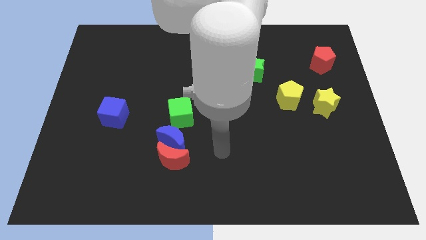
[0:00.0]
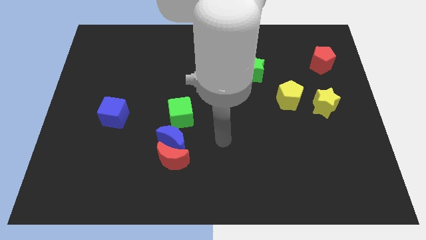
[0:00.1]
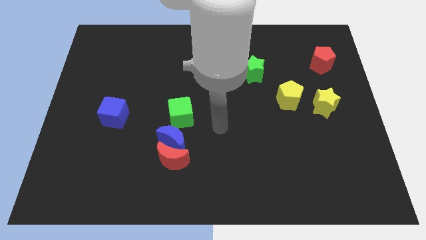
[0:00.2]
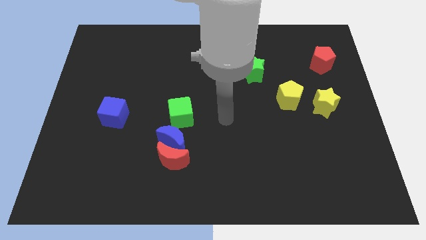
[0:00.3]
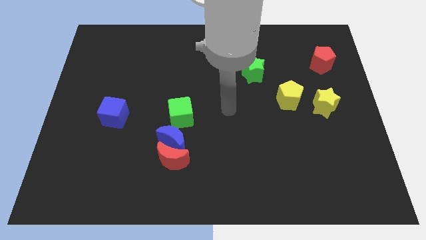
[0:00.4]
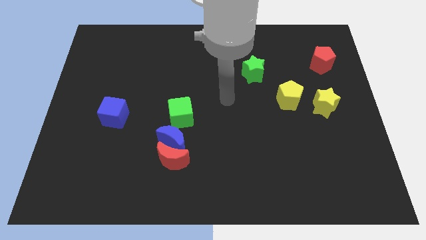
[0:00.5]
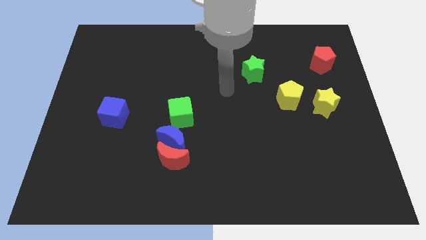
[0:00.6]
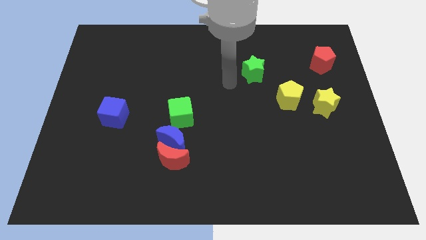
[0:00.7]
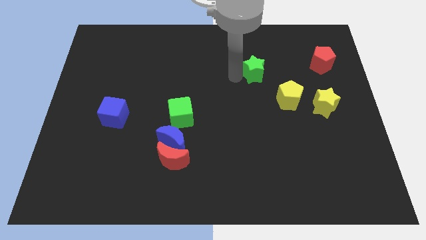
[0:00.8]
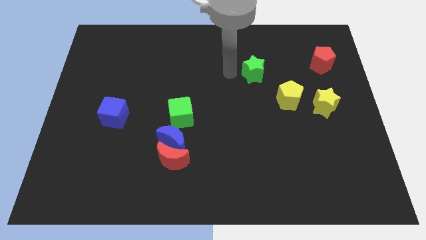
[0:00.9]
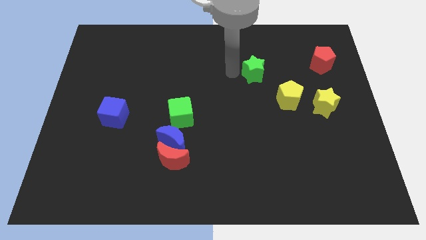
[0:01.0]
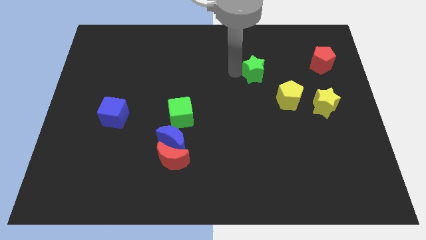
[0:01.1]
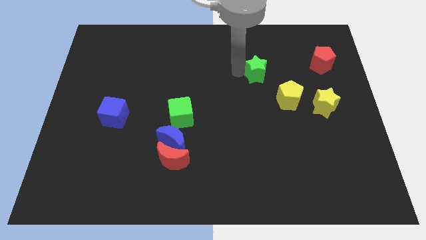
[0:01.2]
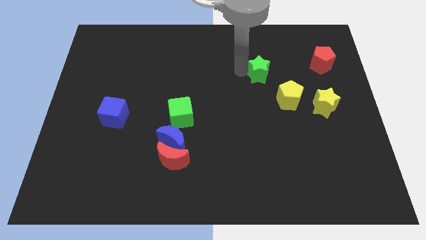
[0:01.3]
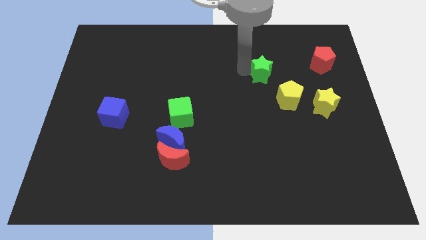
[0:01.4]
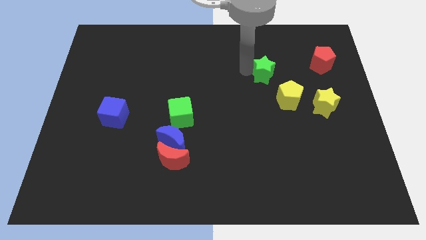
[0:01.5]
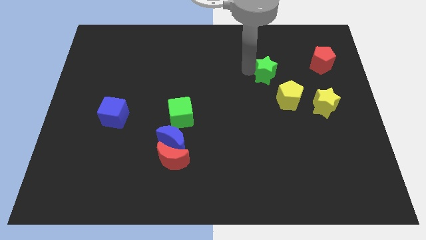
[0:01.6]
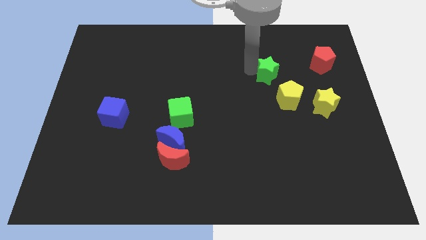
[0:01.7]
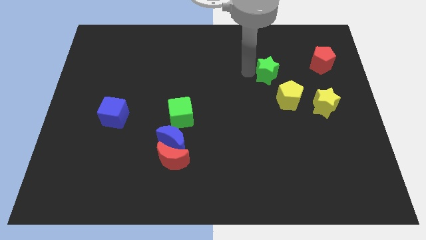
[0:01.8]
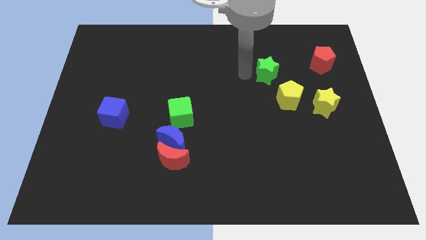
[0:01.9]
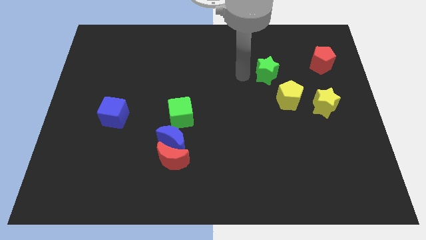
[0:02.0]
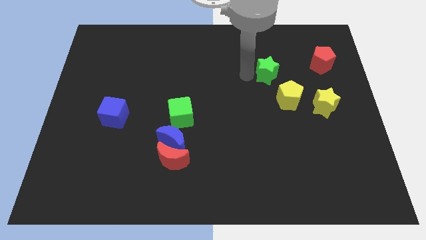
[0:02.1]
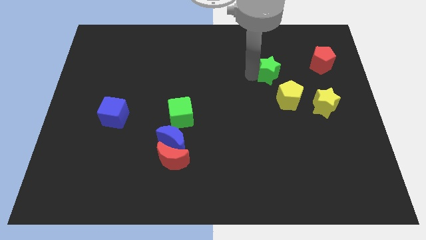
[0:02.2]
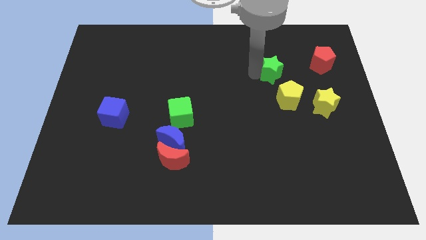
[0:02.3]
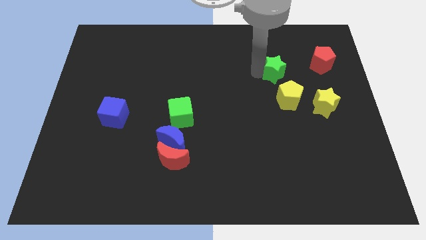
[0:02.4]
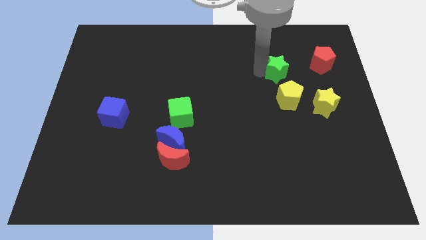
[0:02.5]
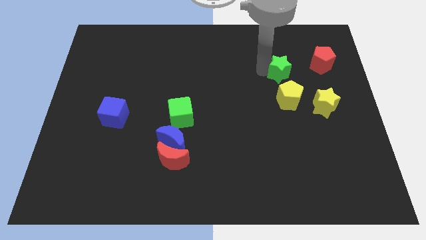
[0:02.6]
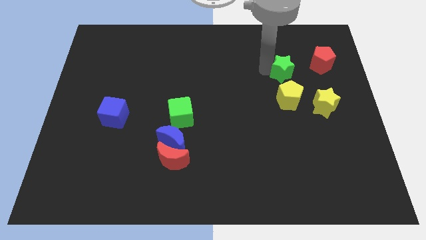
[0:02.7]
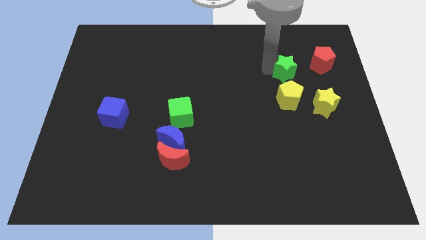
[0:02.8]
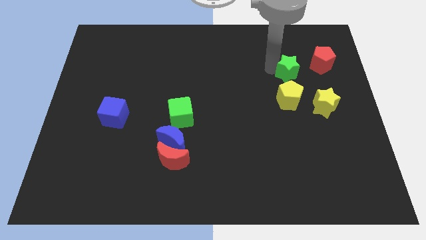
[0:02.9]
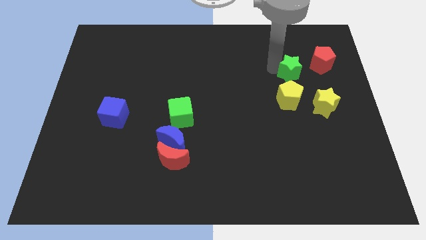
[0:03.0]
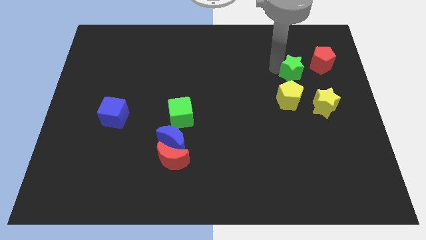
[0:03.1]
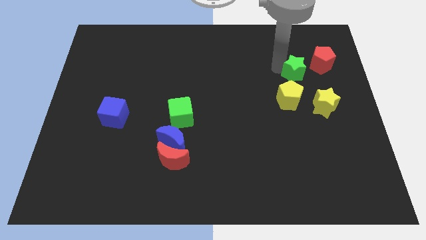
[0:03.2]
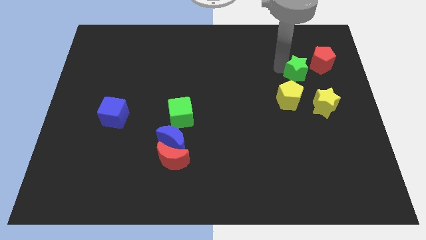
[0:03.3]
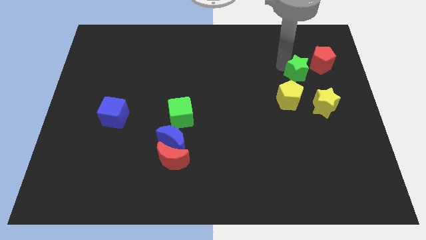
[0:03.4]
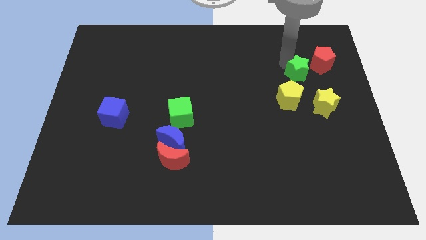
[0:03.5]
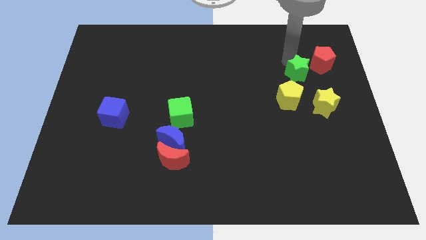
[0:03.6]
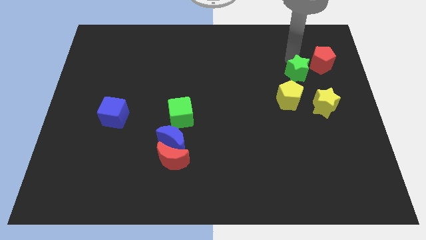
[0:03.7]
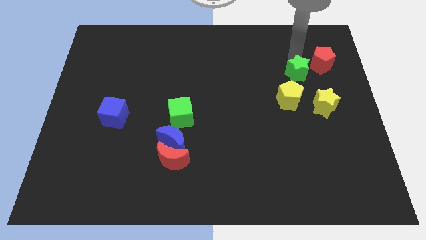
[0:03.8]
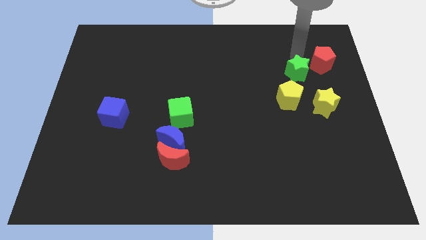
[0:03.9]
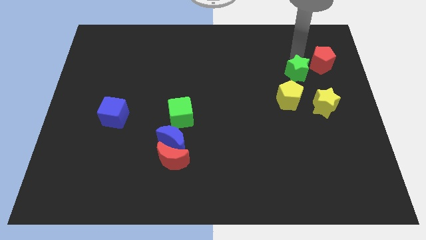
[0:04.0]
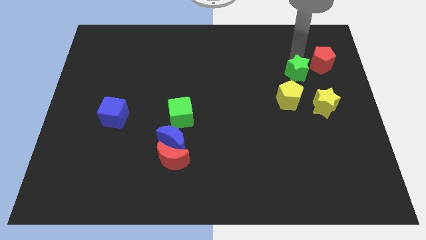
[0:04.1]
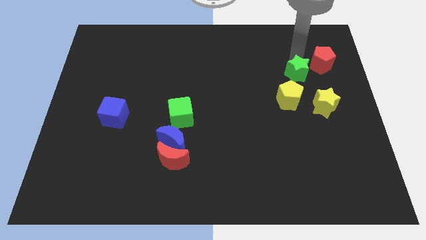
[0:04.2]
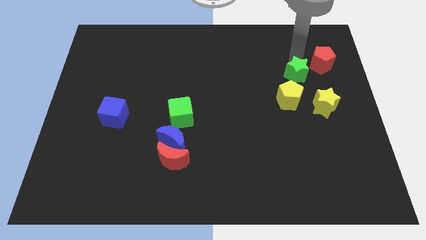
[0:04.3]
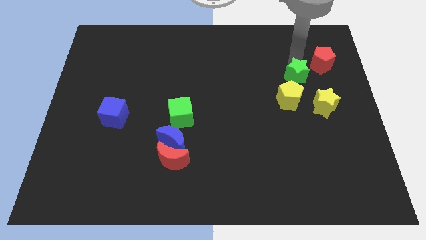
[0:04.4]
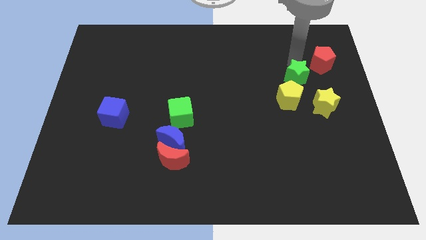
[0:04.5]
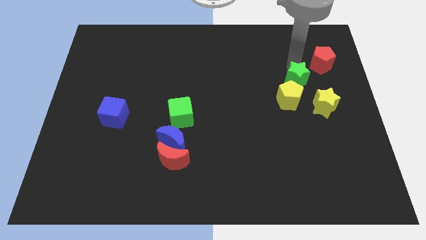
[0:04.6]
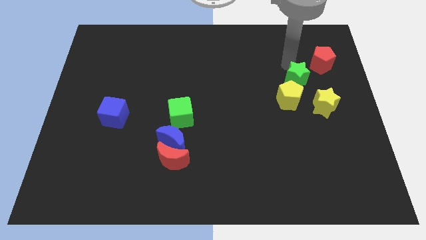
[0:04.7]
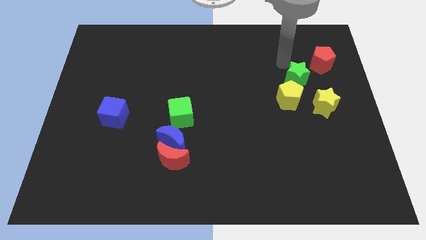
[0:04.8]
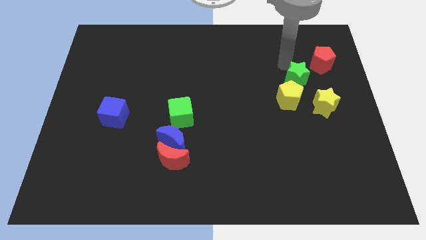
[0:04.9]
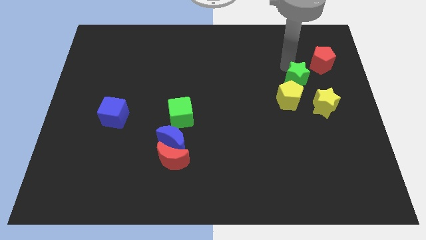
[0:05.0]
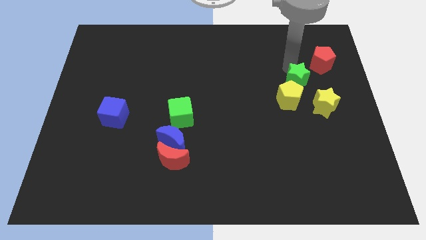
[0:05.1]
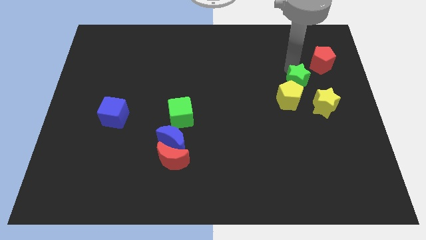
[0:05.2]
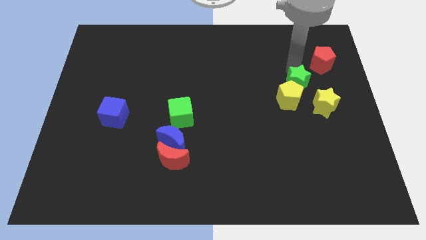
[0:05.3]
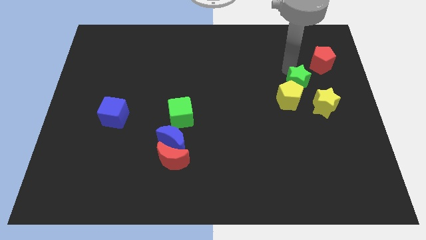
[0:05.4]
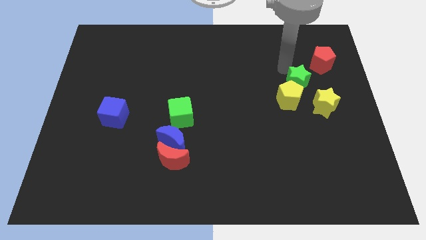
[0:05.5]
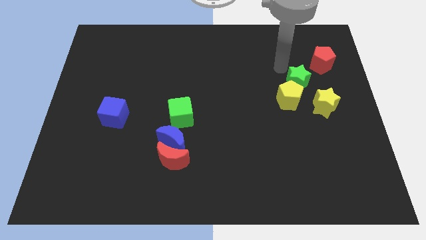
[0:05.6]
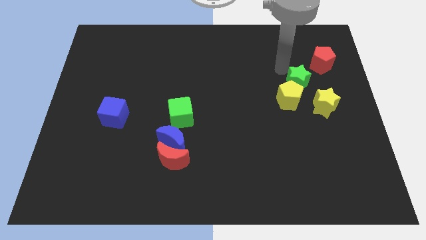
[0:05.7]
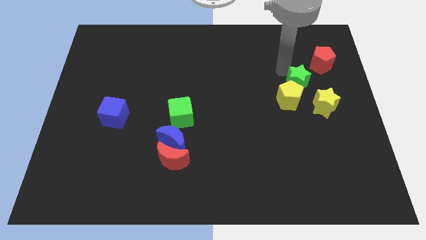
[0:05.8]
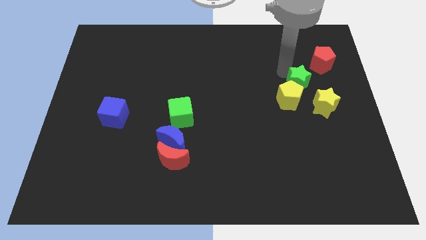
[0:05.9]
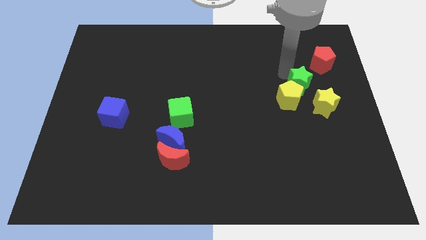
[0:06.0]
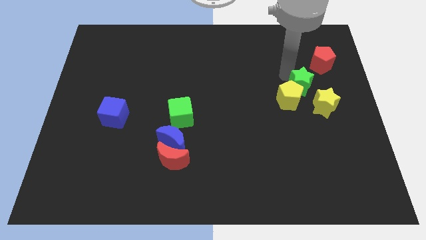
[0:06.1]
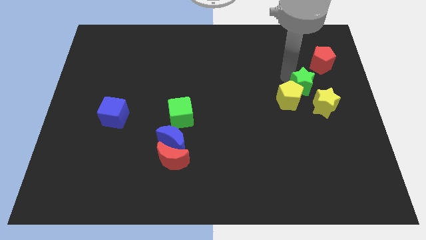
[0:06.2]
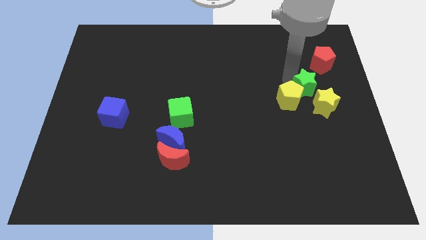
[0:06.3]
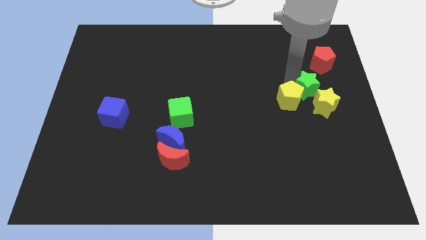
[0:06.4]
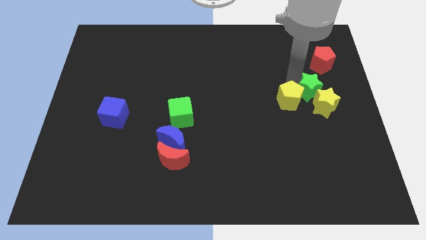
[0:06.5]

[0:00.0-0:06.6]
slide the green star close to the yellow star
